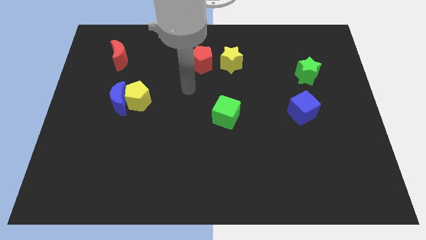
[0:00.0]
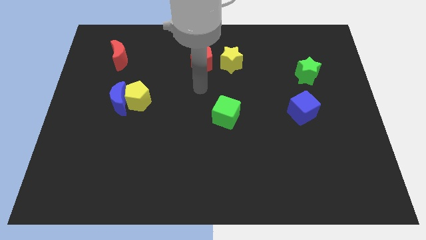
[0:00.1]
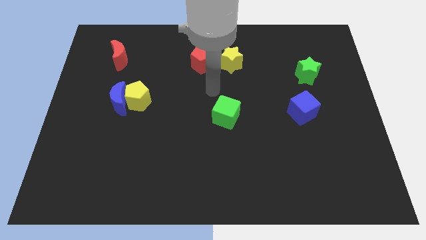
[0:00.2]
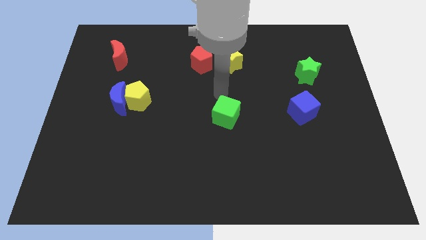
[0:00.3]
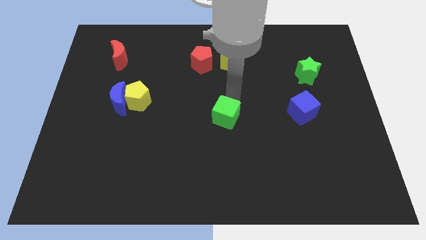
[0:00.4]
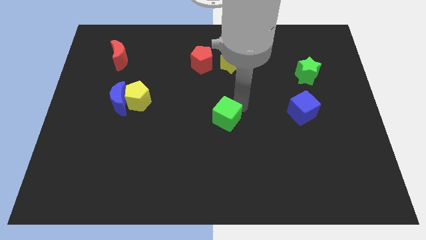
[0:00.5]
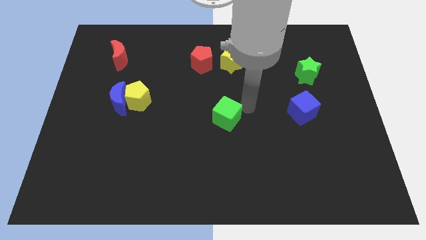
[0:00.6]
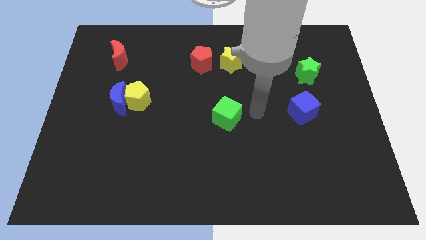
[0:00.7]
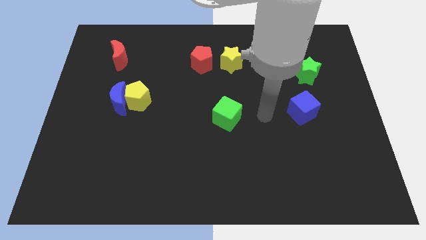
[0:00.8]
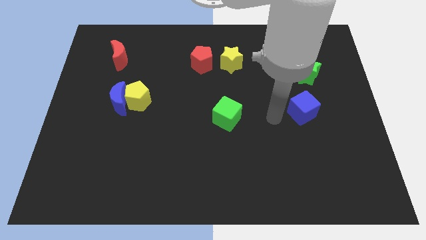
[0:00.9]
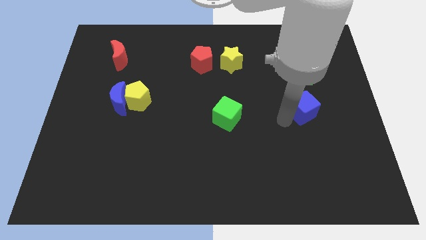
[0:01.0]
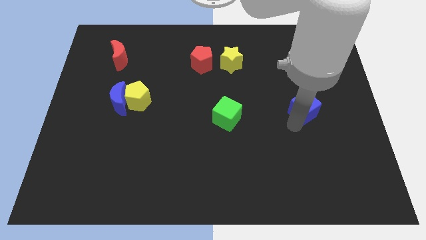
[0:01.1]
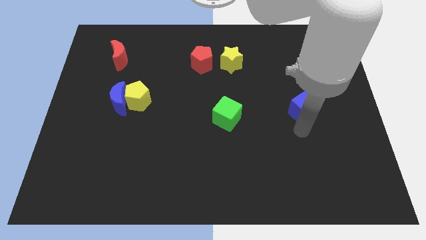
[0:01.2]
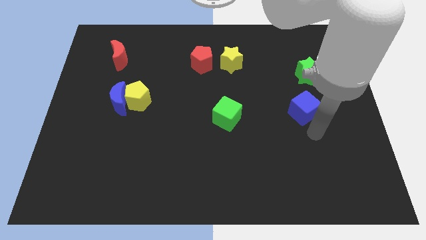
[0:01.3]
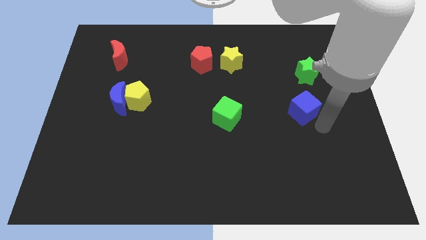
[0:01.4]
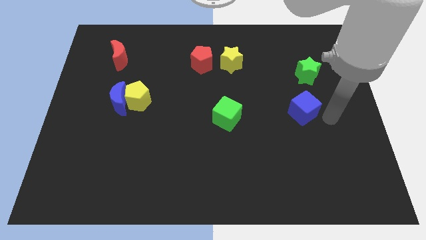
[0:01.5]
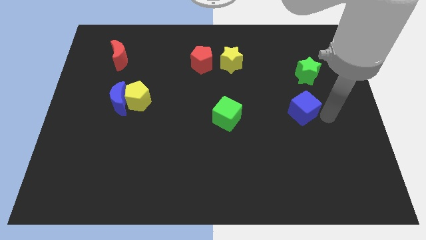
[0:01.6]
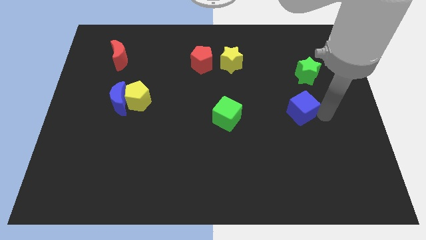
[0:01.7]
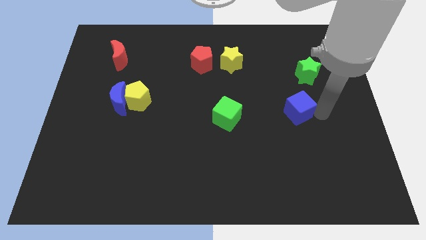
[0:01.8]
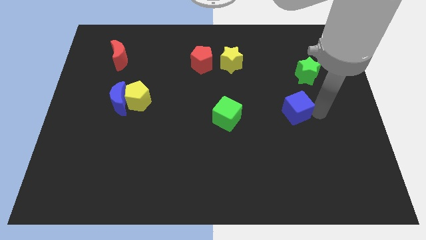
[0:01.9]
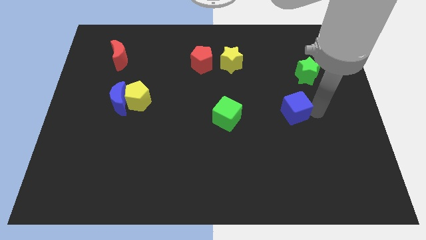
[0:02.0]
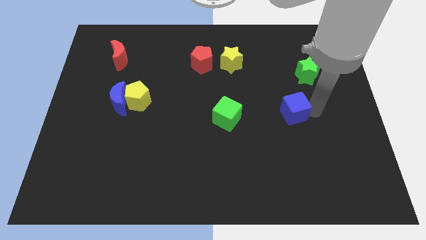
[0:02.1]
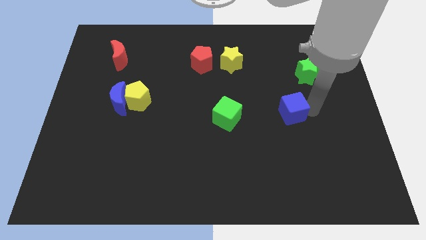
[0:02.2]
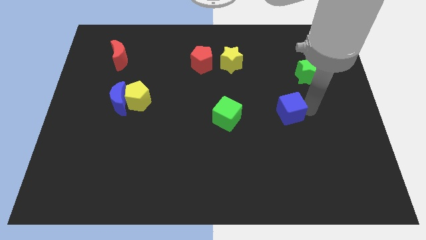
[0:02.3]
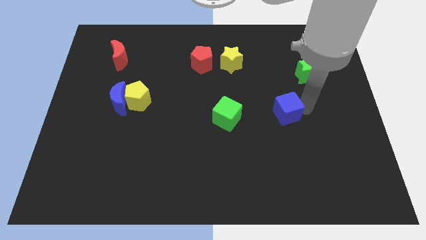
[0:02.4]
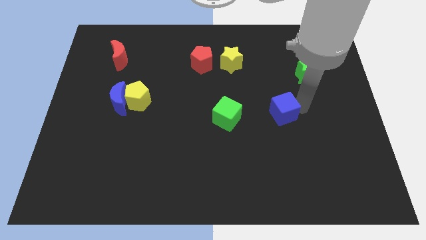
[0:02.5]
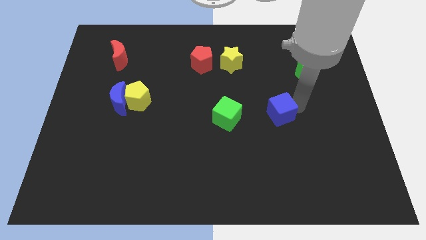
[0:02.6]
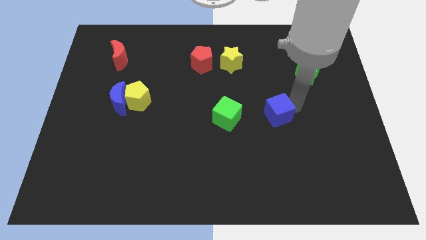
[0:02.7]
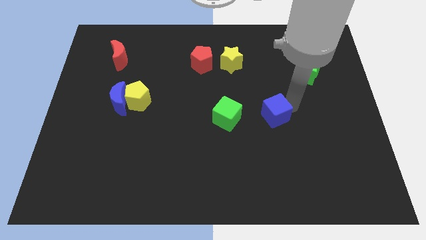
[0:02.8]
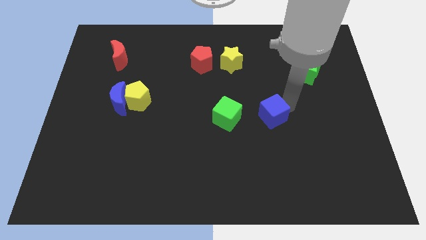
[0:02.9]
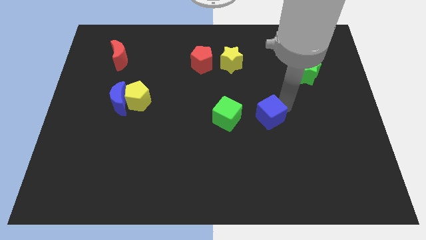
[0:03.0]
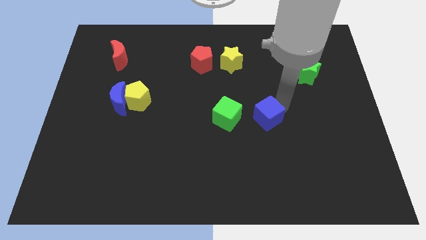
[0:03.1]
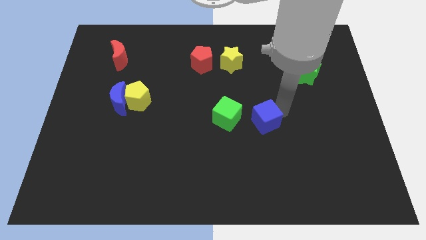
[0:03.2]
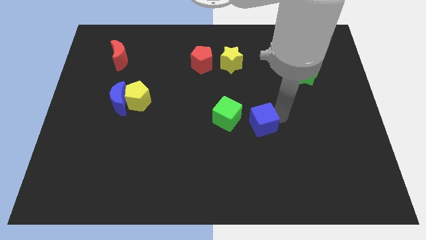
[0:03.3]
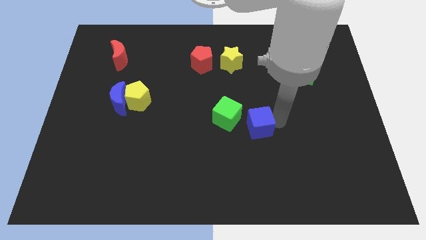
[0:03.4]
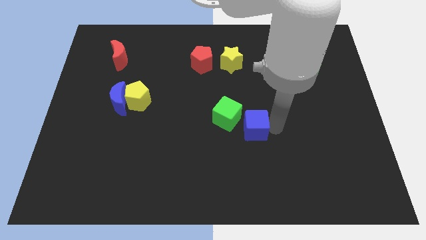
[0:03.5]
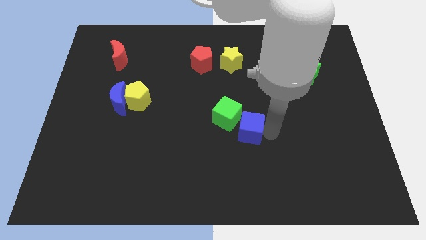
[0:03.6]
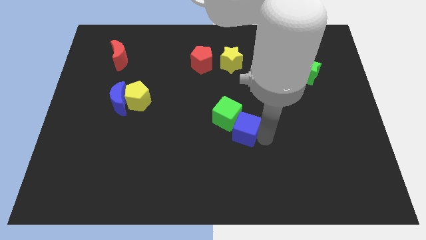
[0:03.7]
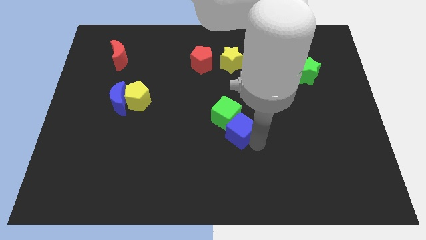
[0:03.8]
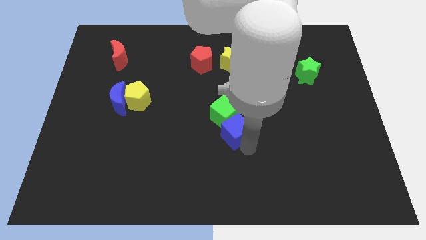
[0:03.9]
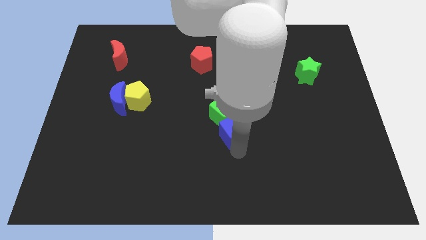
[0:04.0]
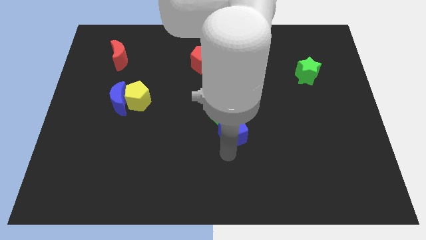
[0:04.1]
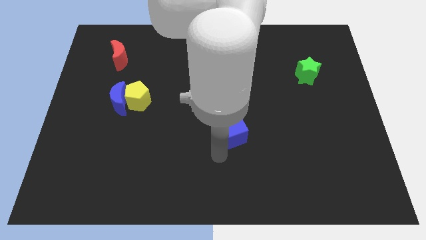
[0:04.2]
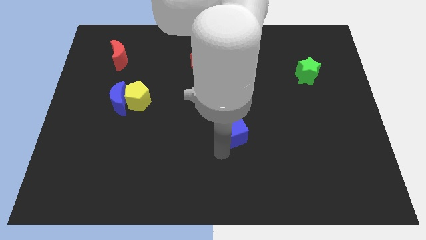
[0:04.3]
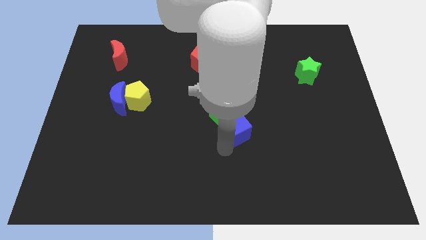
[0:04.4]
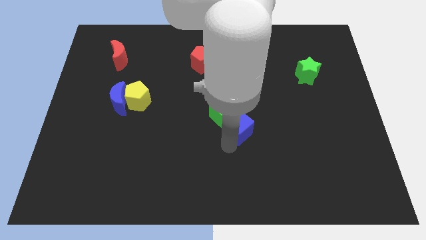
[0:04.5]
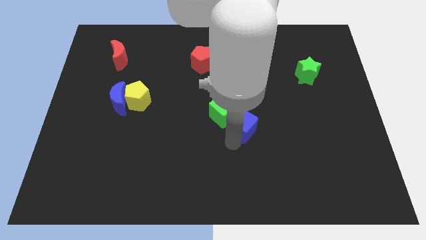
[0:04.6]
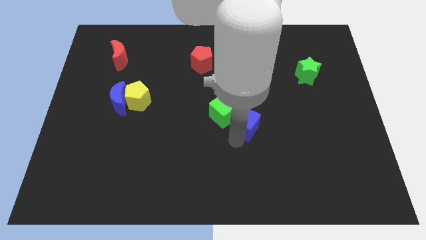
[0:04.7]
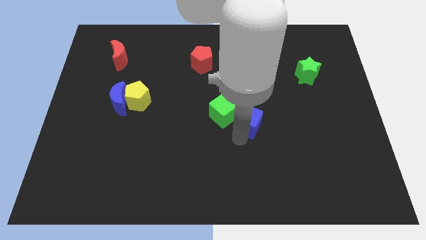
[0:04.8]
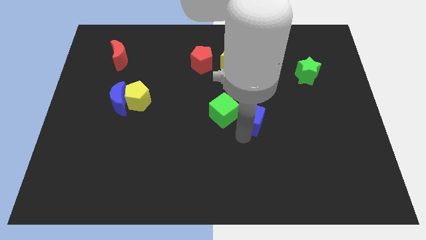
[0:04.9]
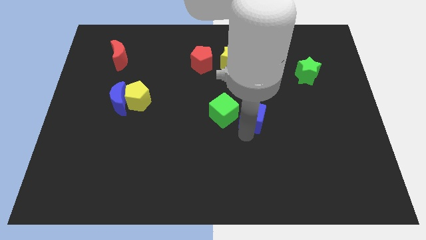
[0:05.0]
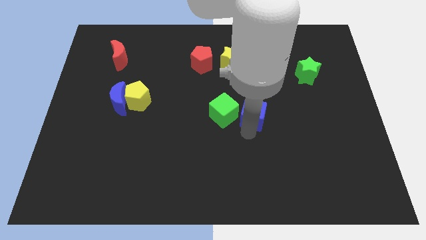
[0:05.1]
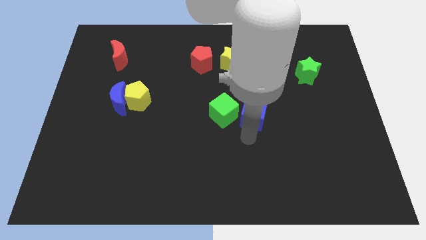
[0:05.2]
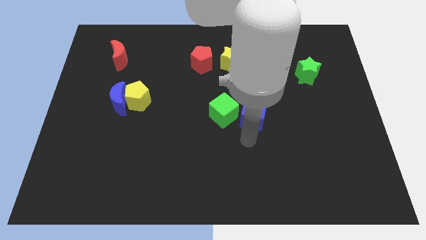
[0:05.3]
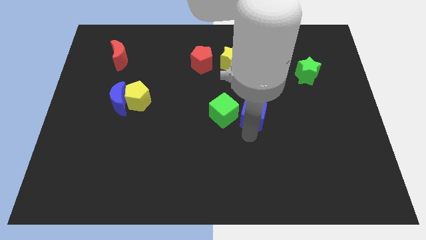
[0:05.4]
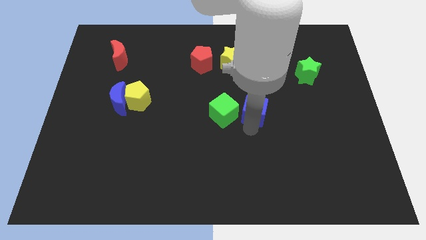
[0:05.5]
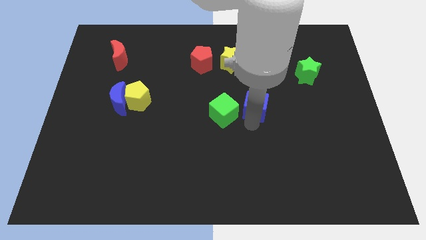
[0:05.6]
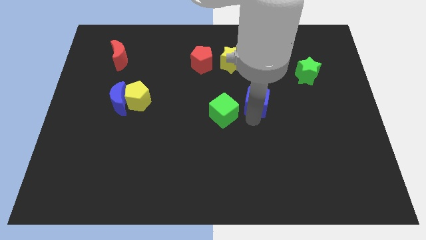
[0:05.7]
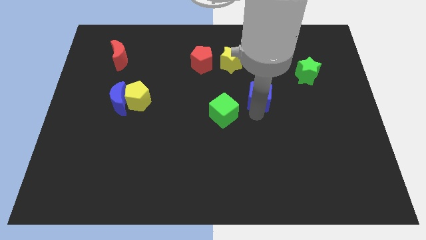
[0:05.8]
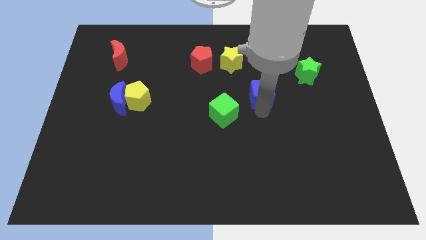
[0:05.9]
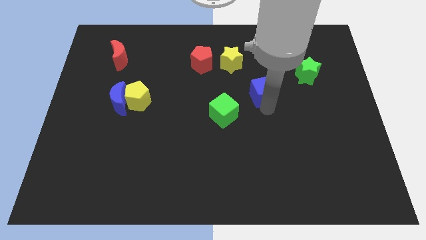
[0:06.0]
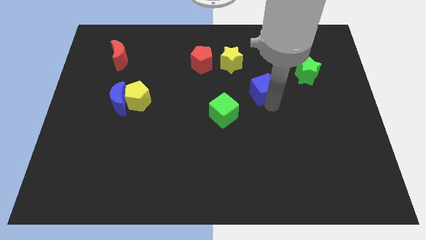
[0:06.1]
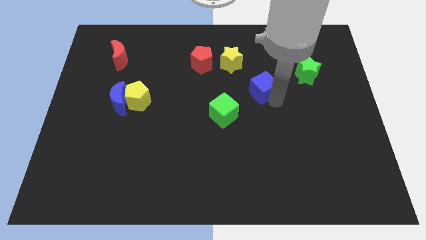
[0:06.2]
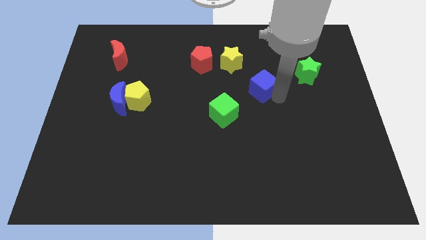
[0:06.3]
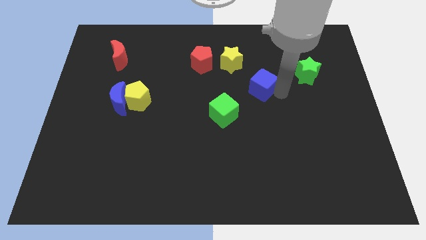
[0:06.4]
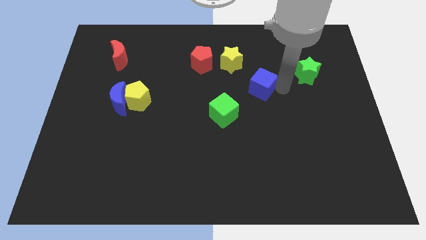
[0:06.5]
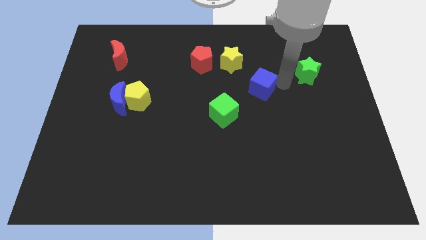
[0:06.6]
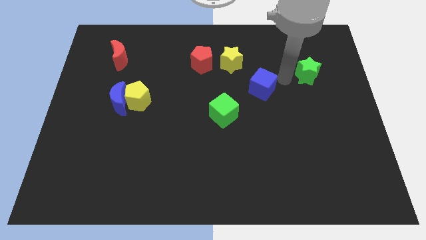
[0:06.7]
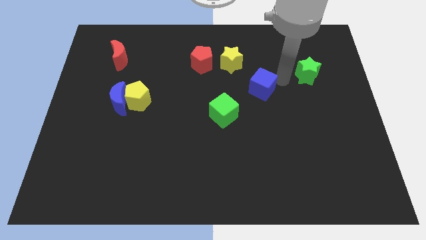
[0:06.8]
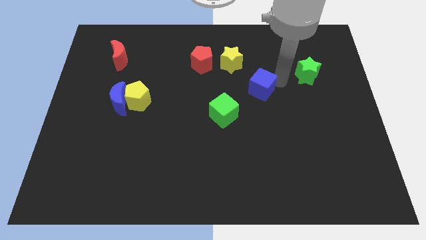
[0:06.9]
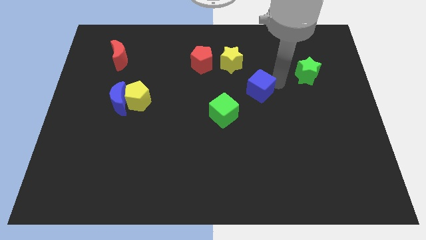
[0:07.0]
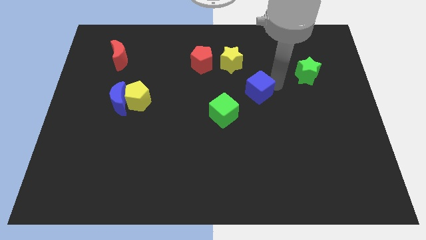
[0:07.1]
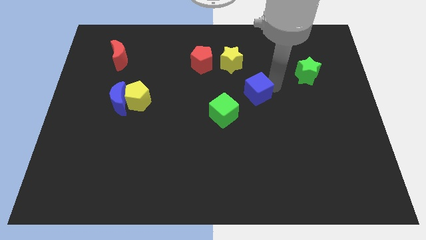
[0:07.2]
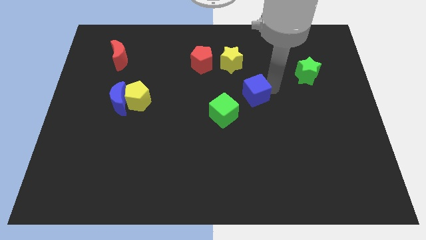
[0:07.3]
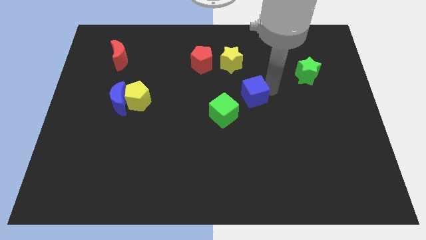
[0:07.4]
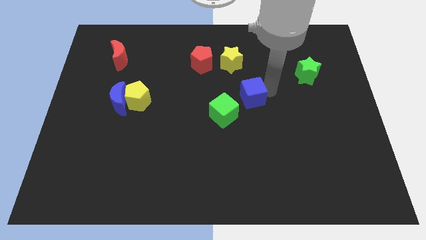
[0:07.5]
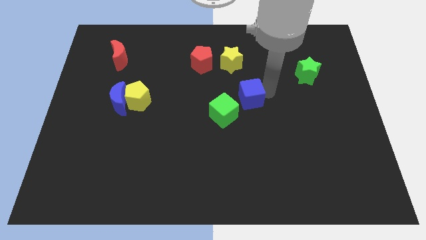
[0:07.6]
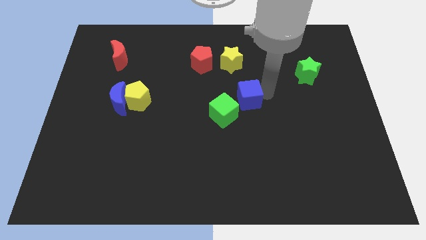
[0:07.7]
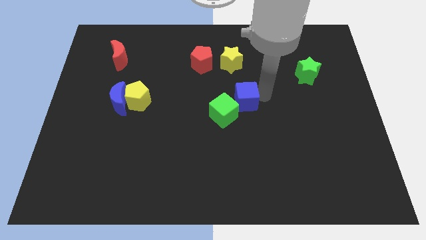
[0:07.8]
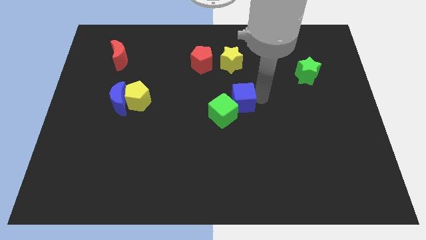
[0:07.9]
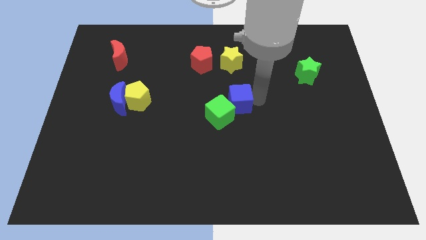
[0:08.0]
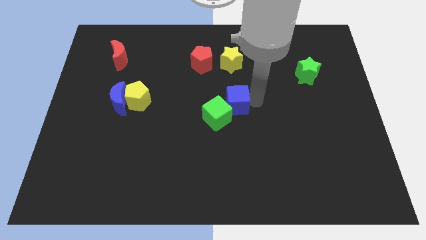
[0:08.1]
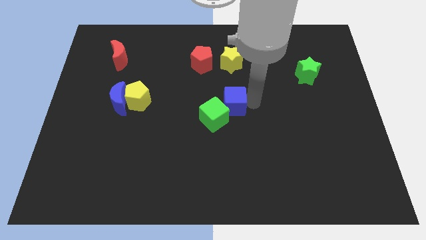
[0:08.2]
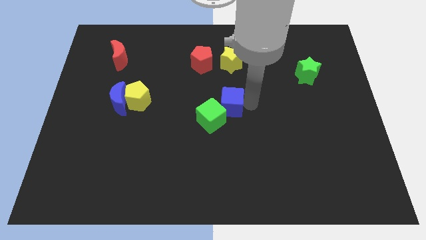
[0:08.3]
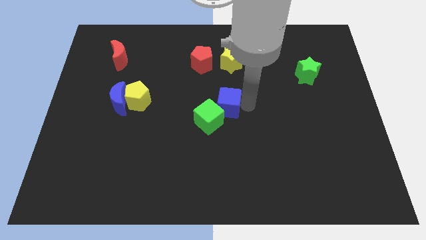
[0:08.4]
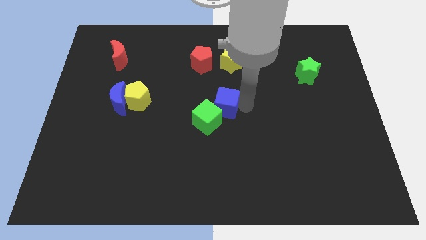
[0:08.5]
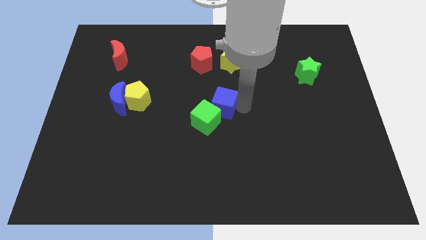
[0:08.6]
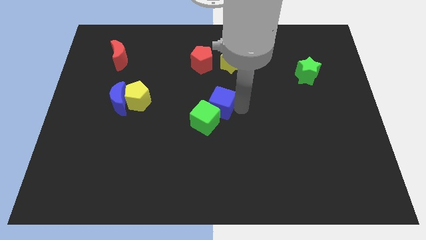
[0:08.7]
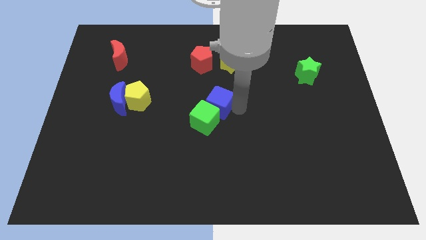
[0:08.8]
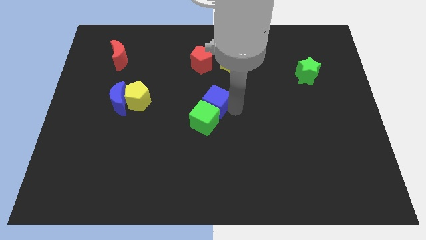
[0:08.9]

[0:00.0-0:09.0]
push the blue cube to the left
